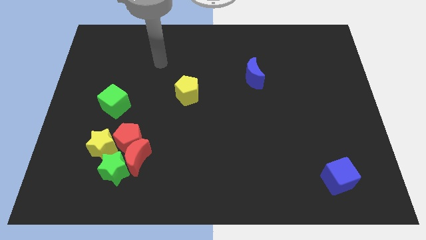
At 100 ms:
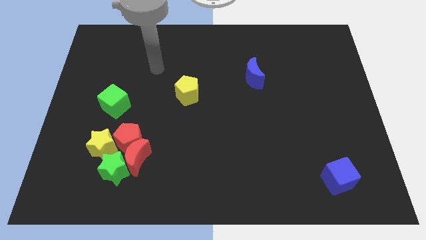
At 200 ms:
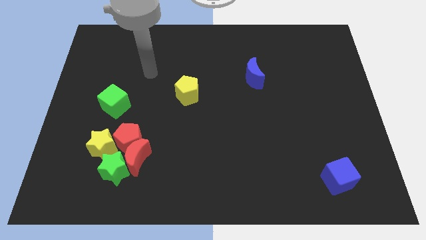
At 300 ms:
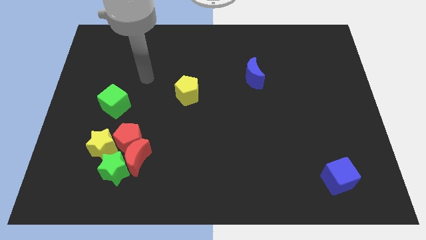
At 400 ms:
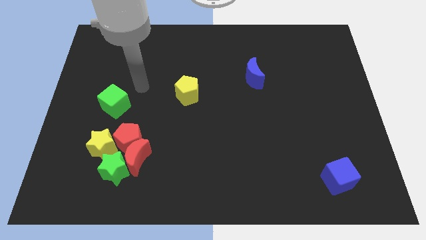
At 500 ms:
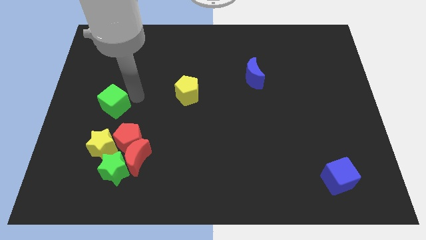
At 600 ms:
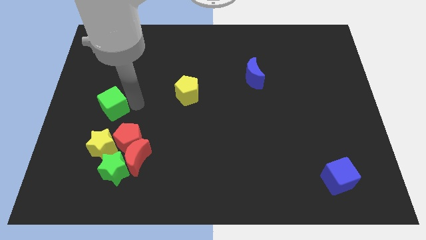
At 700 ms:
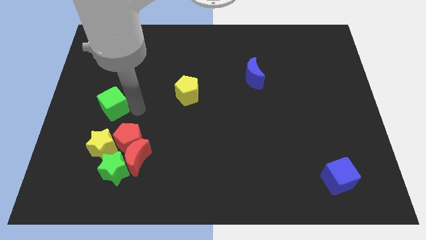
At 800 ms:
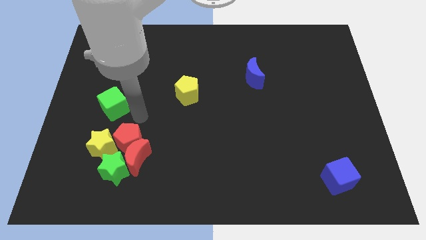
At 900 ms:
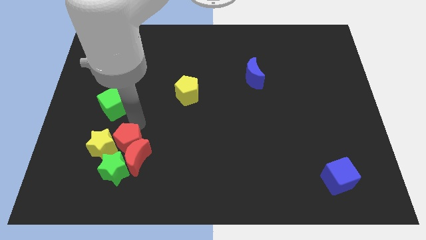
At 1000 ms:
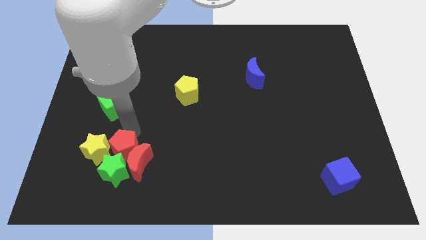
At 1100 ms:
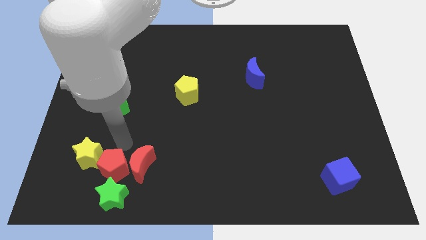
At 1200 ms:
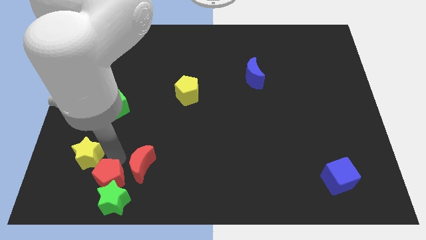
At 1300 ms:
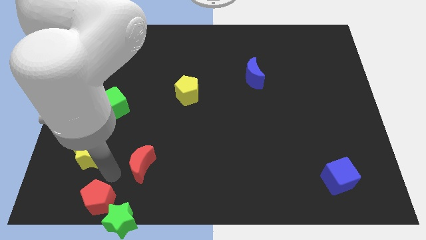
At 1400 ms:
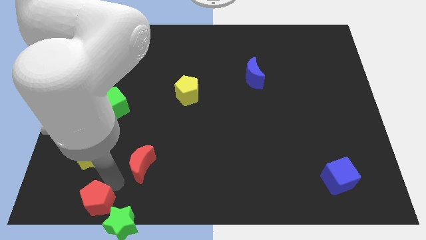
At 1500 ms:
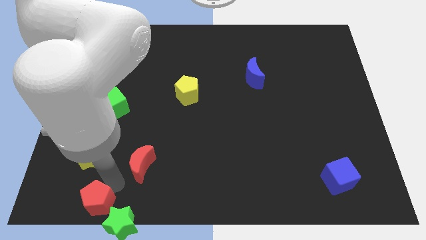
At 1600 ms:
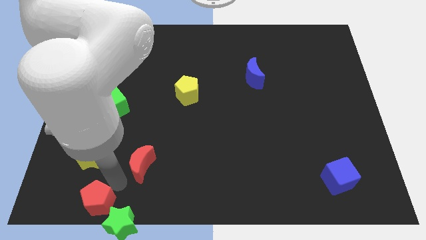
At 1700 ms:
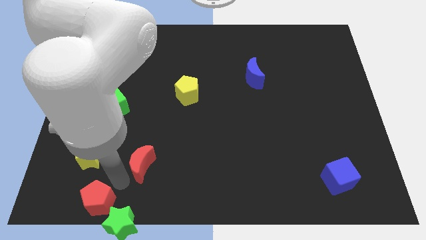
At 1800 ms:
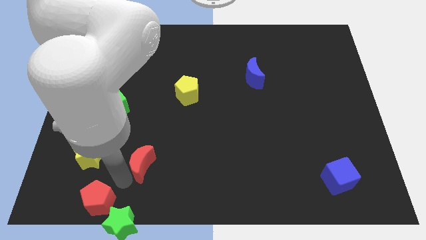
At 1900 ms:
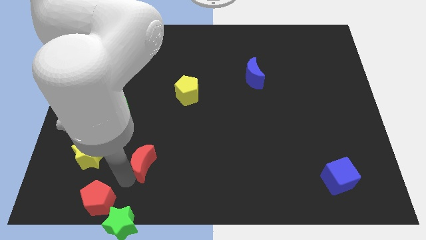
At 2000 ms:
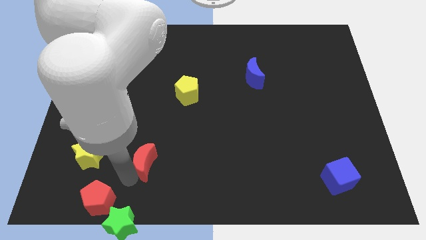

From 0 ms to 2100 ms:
move the red moon away from the red pentagon, green star, and yellow star

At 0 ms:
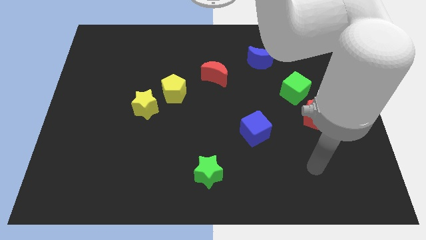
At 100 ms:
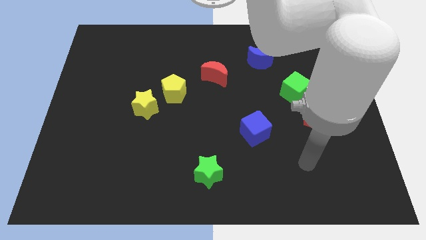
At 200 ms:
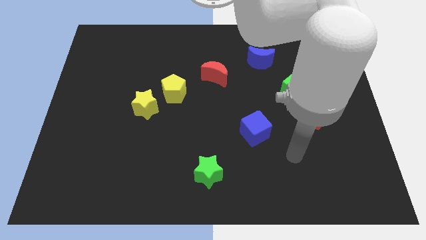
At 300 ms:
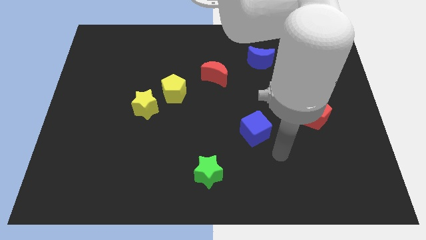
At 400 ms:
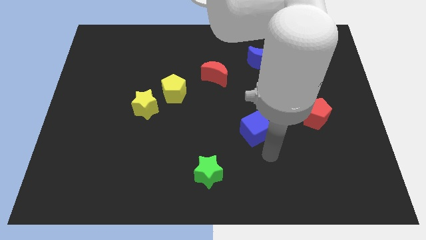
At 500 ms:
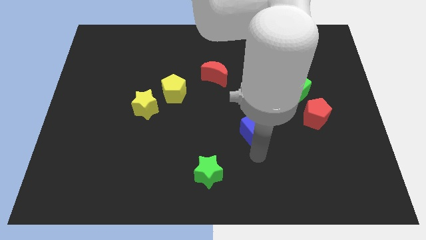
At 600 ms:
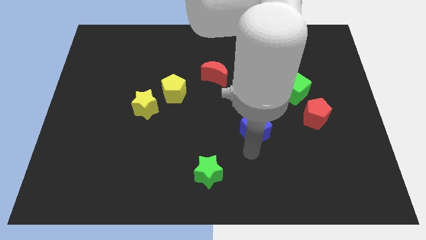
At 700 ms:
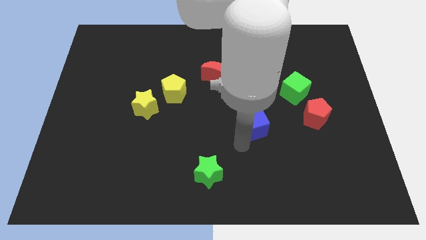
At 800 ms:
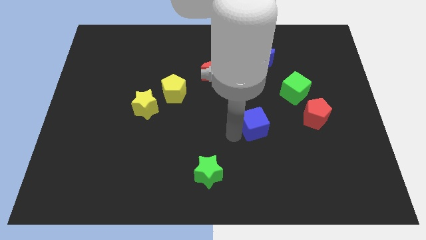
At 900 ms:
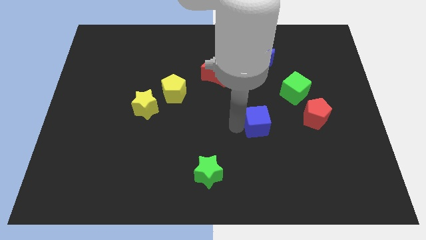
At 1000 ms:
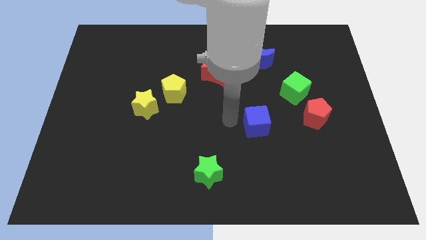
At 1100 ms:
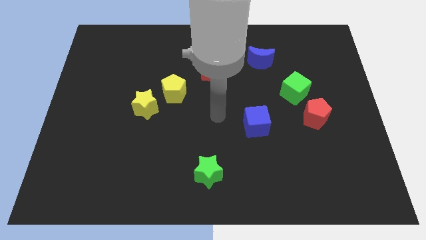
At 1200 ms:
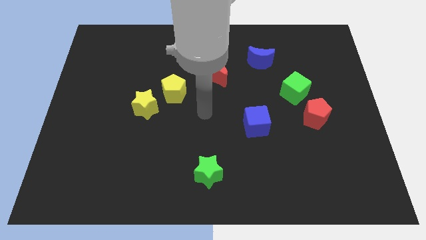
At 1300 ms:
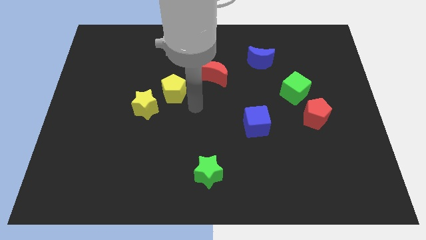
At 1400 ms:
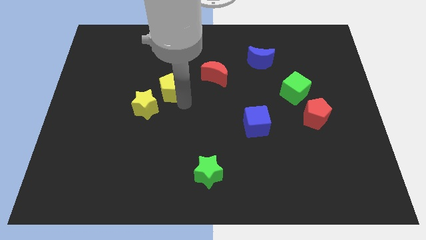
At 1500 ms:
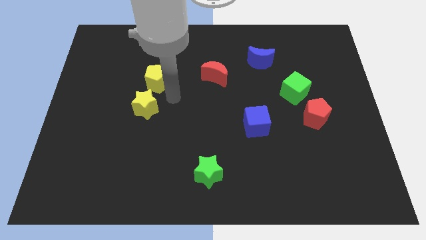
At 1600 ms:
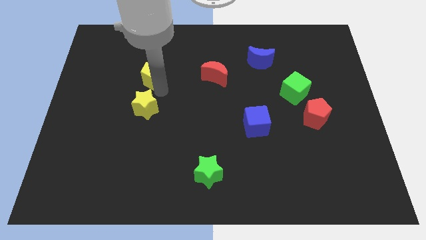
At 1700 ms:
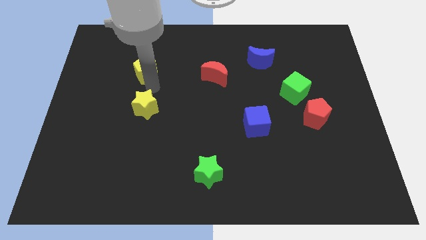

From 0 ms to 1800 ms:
separate the yellow star from the yellow pentagon

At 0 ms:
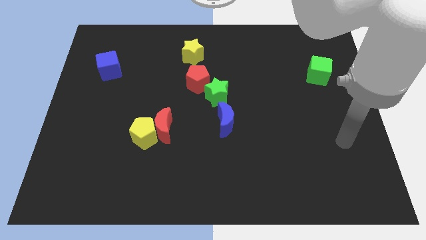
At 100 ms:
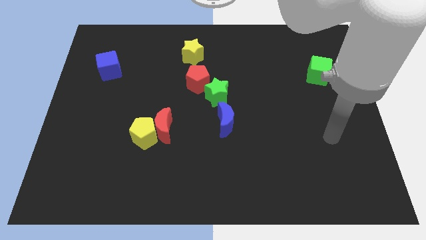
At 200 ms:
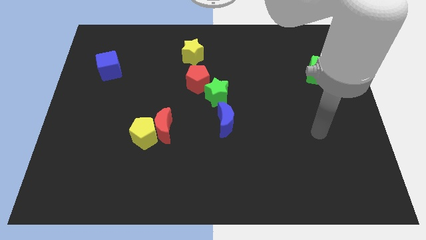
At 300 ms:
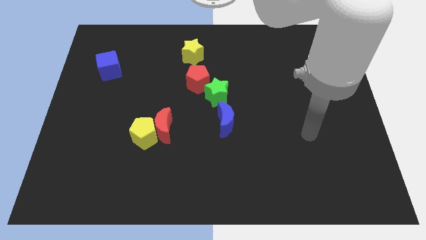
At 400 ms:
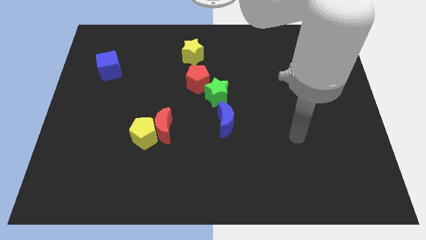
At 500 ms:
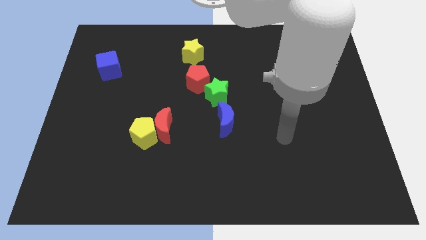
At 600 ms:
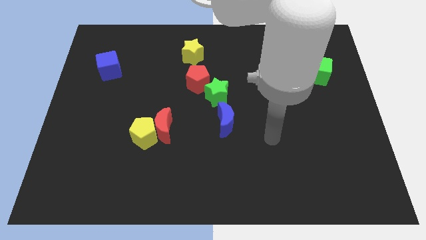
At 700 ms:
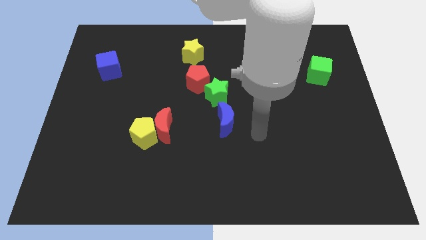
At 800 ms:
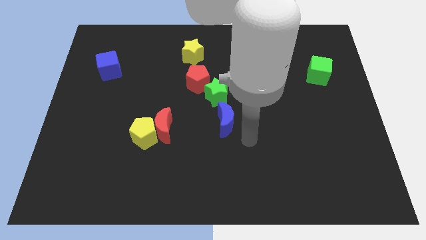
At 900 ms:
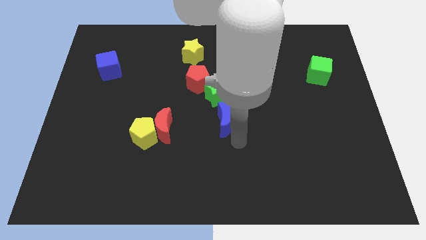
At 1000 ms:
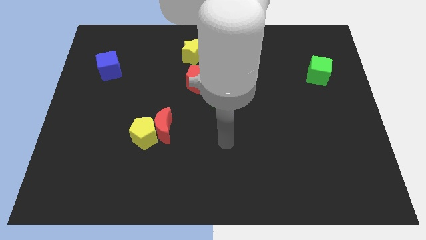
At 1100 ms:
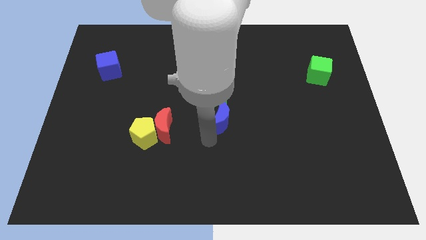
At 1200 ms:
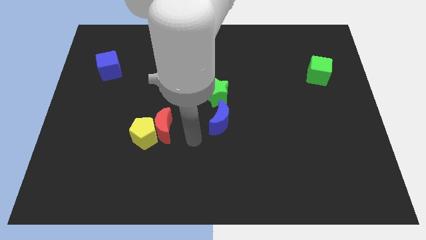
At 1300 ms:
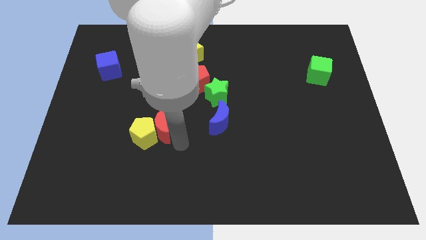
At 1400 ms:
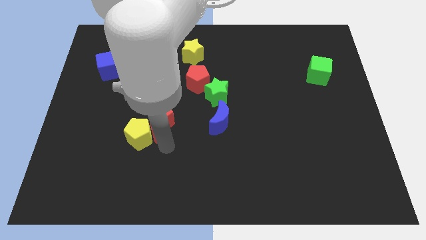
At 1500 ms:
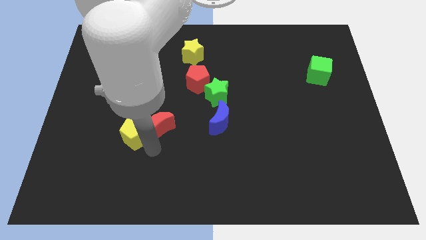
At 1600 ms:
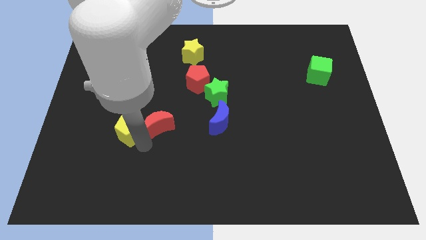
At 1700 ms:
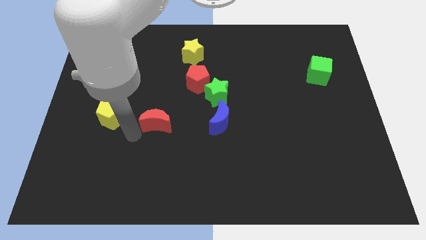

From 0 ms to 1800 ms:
pull the red moon apart from the yellow pentagon

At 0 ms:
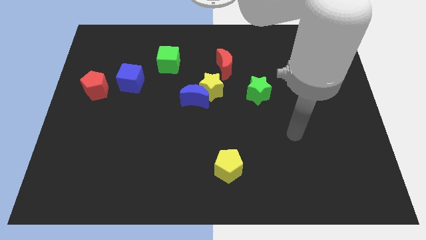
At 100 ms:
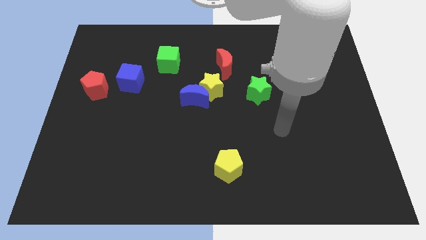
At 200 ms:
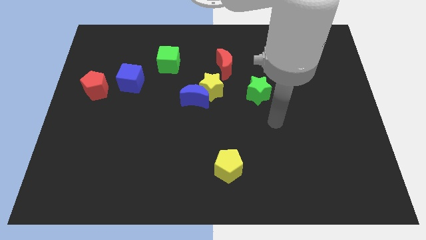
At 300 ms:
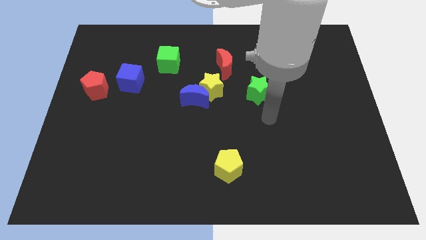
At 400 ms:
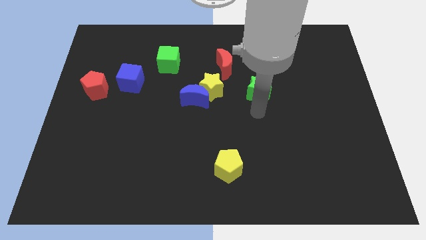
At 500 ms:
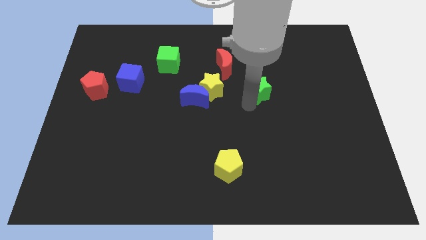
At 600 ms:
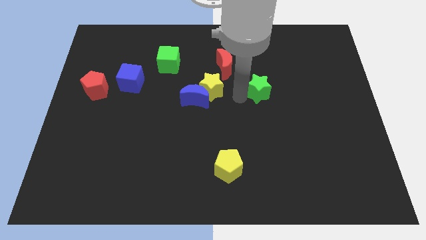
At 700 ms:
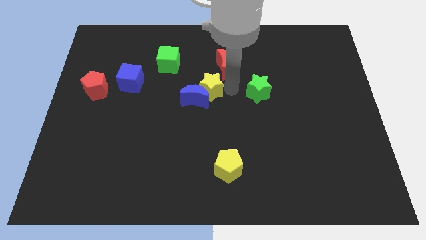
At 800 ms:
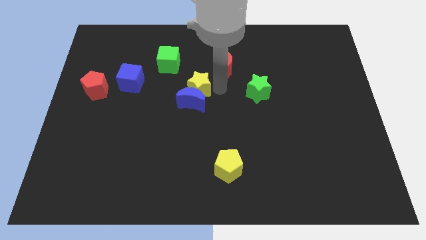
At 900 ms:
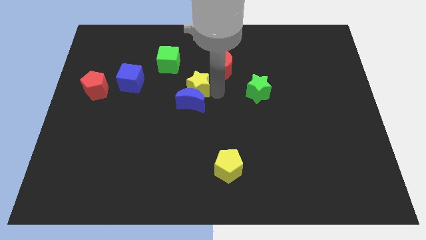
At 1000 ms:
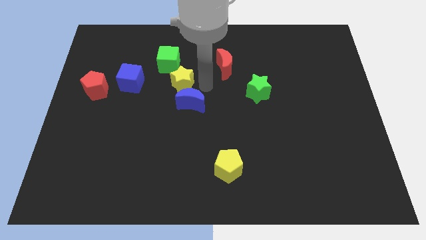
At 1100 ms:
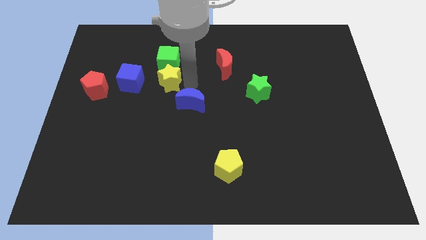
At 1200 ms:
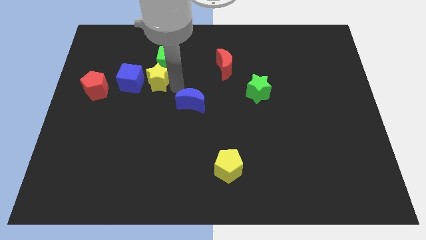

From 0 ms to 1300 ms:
move the blue moon away from the yellow star

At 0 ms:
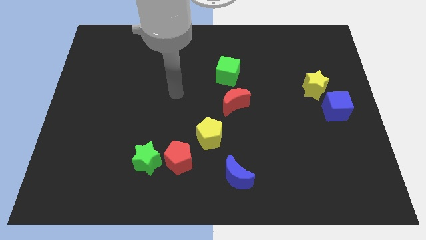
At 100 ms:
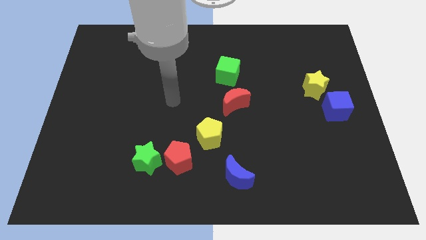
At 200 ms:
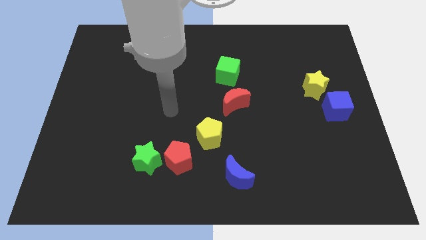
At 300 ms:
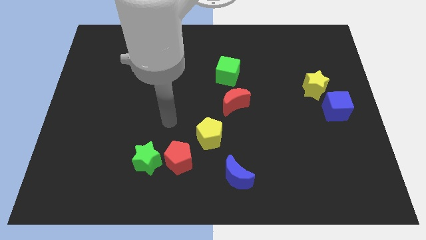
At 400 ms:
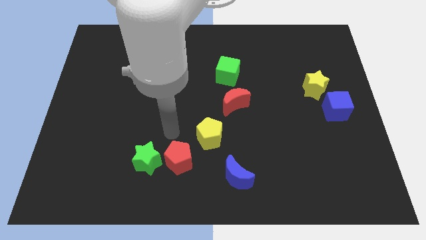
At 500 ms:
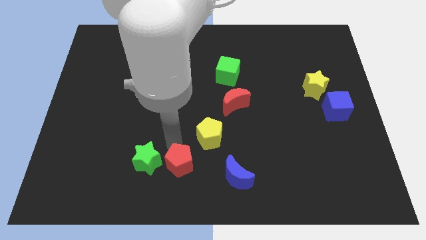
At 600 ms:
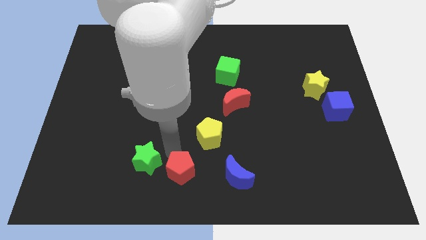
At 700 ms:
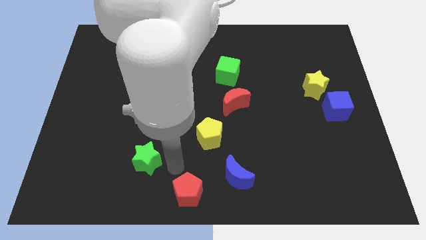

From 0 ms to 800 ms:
pull the green star apart from the red pentagon

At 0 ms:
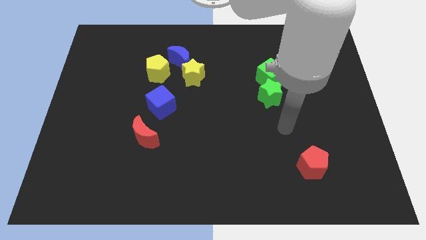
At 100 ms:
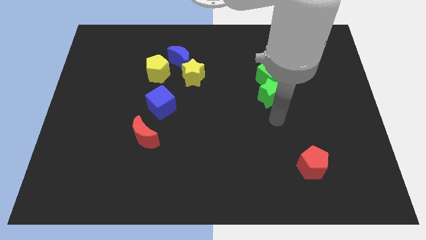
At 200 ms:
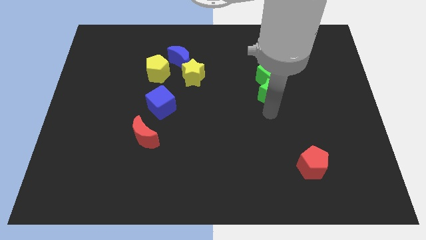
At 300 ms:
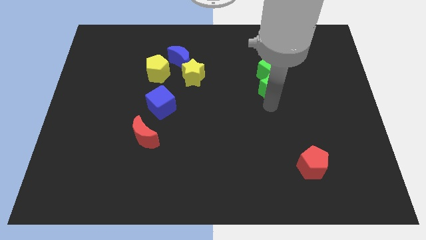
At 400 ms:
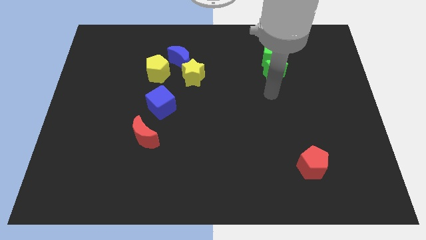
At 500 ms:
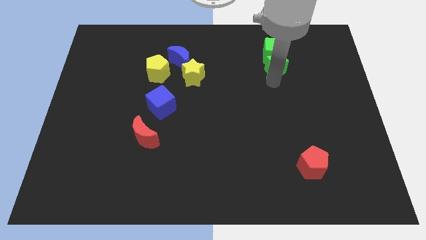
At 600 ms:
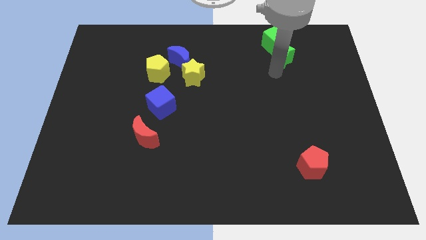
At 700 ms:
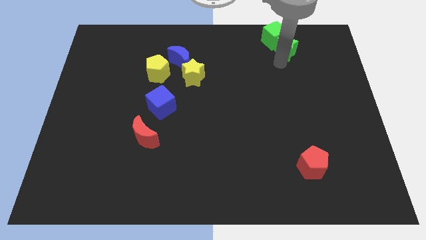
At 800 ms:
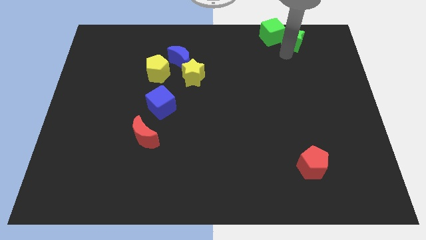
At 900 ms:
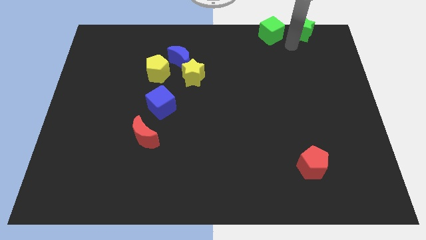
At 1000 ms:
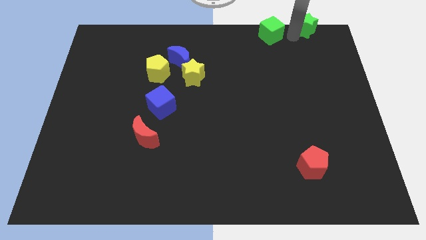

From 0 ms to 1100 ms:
pull the green cube apart from the green star

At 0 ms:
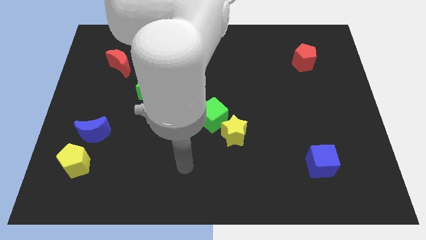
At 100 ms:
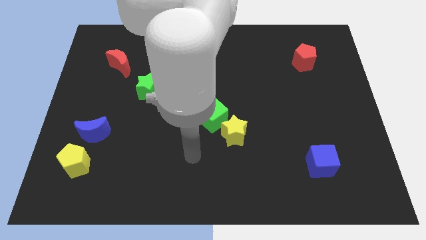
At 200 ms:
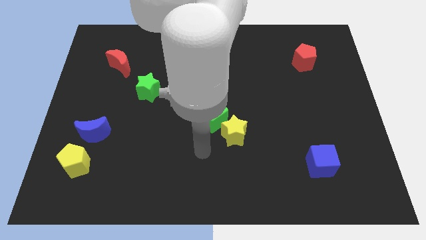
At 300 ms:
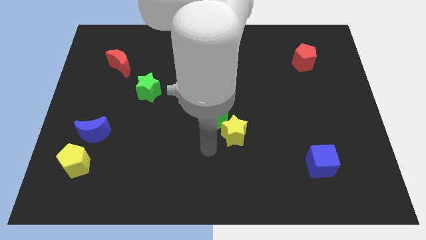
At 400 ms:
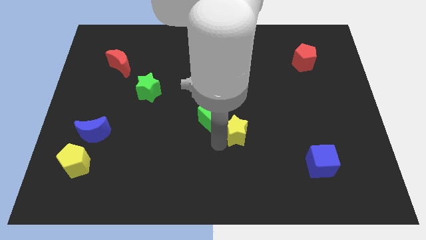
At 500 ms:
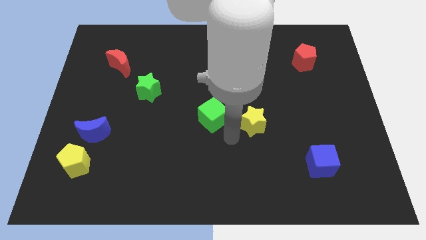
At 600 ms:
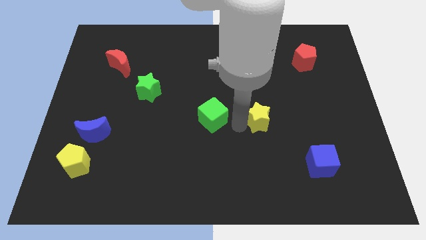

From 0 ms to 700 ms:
separate the green cube from the yellow star
